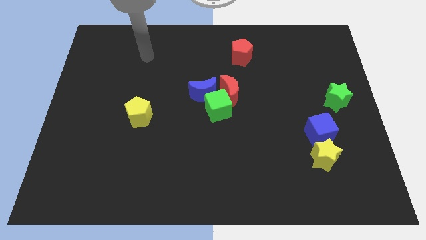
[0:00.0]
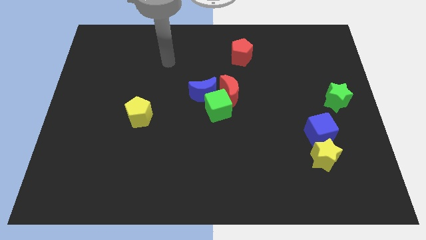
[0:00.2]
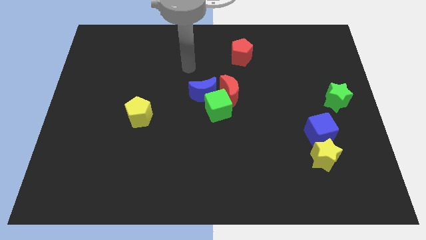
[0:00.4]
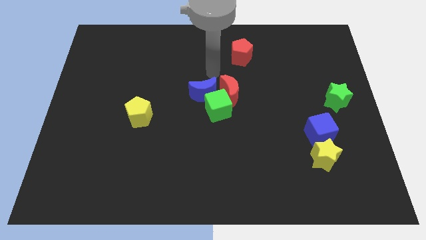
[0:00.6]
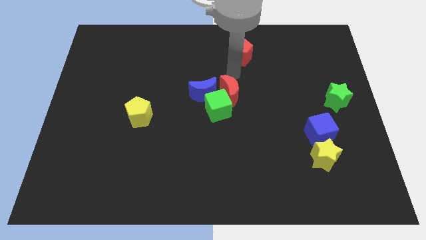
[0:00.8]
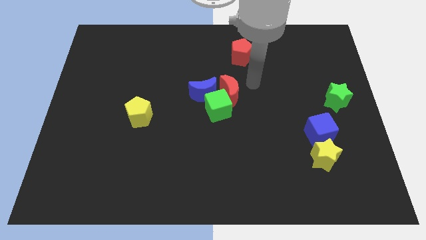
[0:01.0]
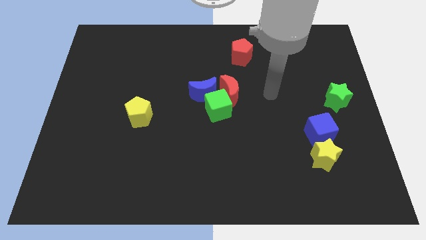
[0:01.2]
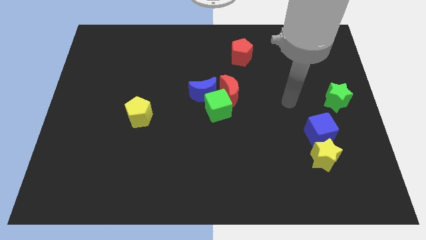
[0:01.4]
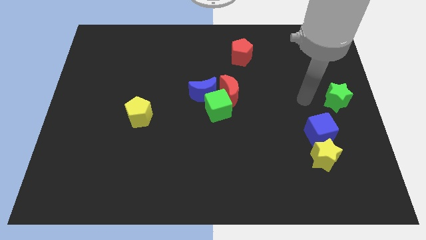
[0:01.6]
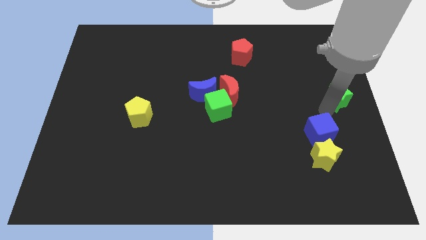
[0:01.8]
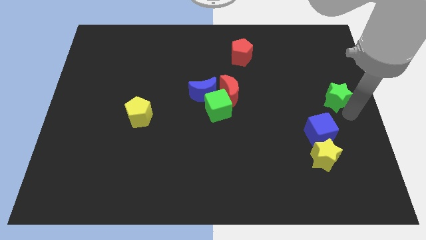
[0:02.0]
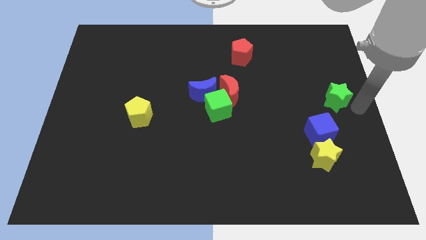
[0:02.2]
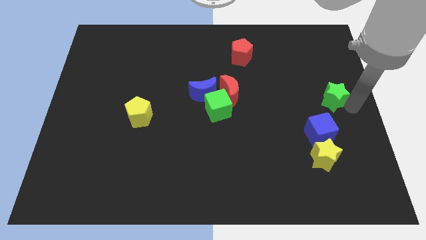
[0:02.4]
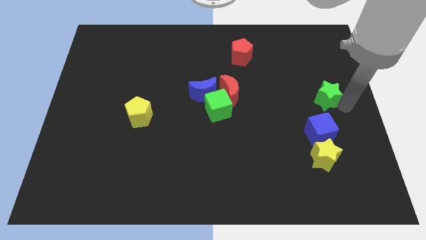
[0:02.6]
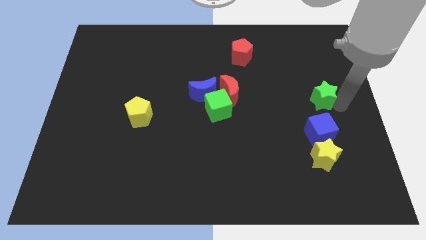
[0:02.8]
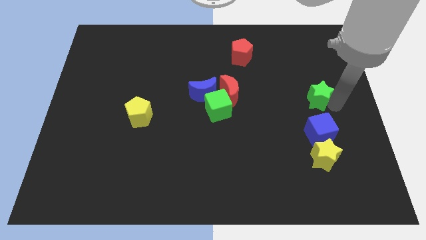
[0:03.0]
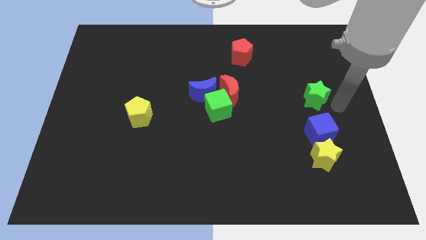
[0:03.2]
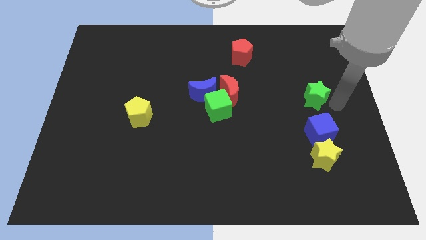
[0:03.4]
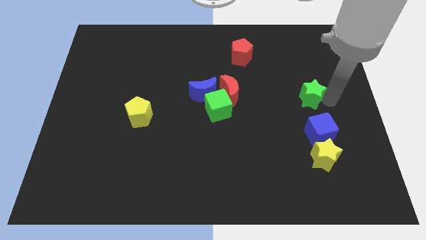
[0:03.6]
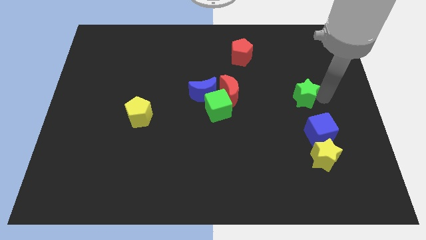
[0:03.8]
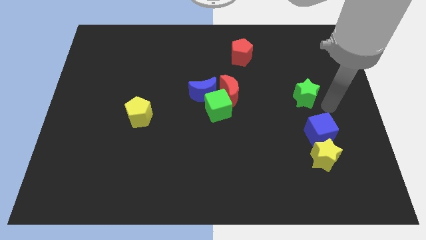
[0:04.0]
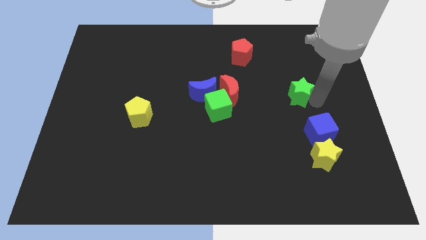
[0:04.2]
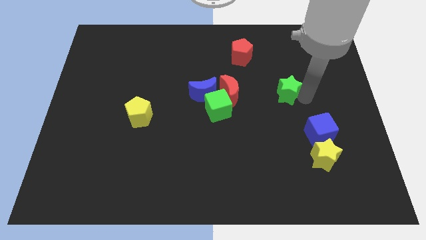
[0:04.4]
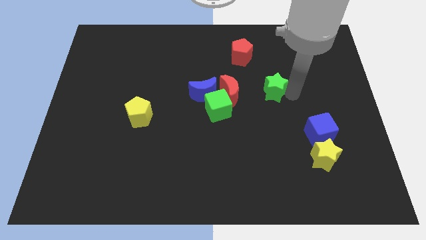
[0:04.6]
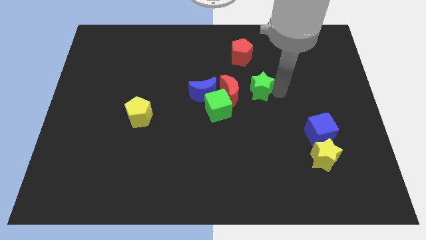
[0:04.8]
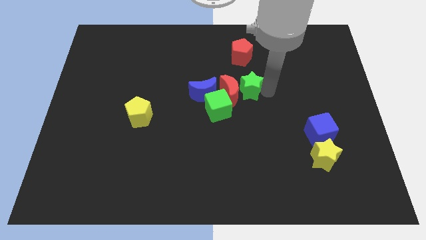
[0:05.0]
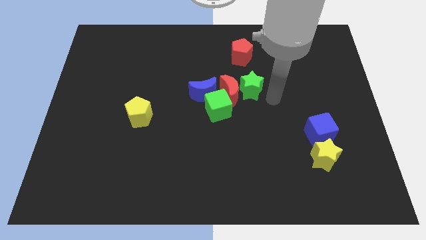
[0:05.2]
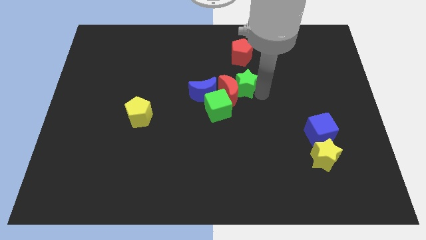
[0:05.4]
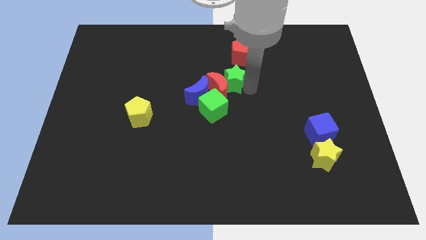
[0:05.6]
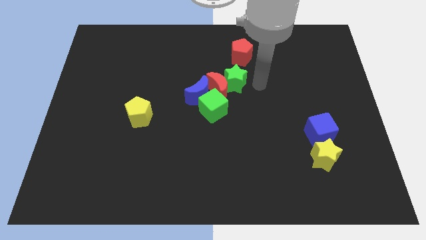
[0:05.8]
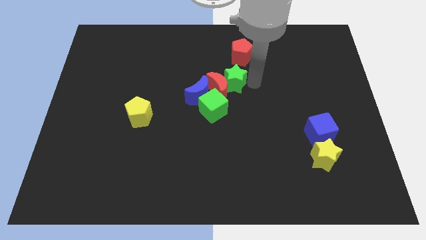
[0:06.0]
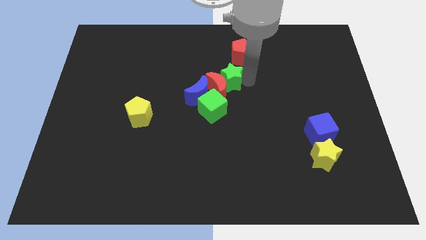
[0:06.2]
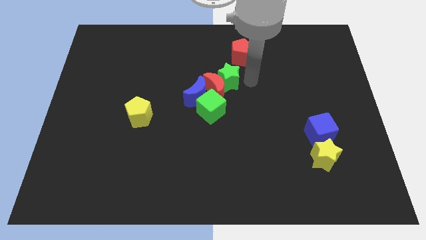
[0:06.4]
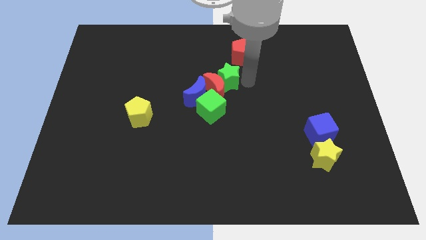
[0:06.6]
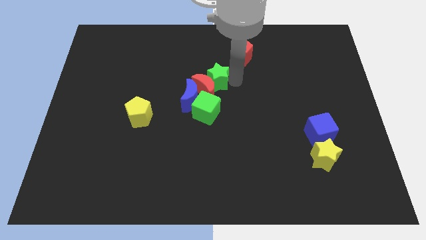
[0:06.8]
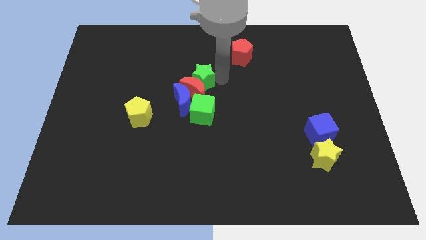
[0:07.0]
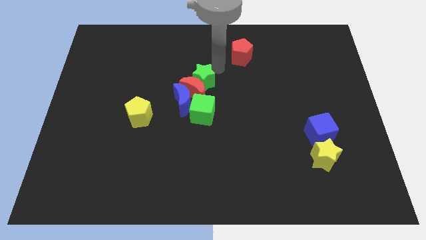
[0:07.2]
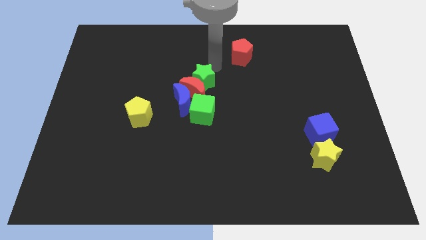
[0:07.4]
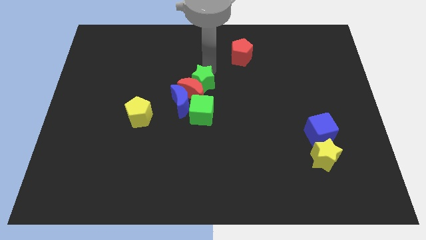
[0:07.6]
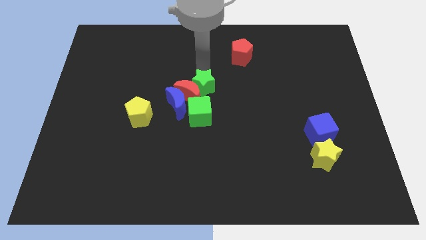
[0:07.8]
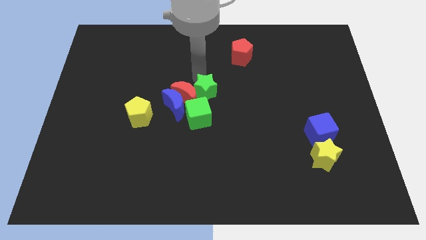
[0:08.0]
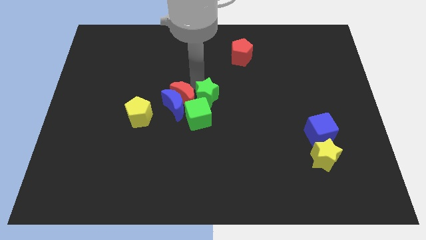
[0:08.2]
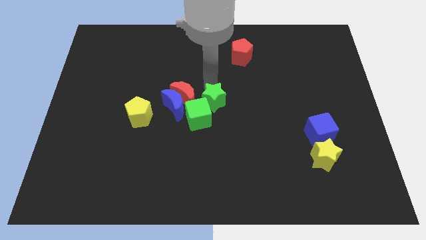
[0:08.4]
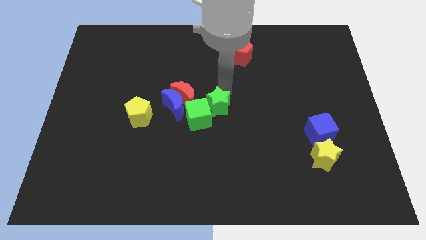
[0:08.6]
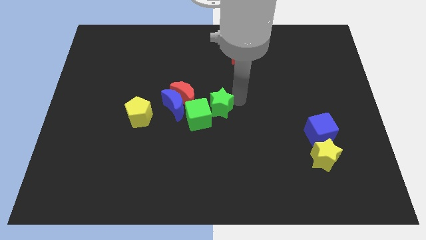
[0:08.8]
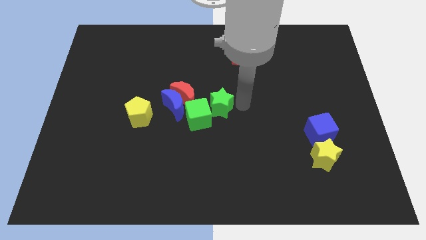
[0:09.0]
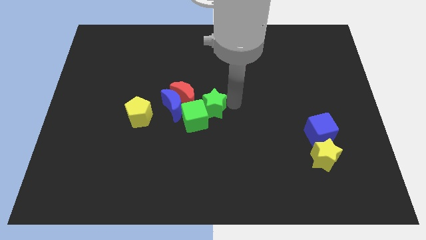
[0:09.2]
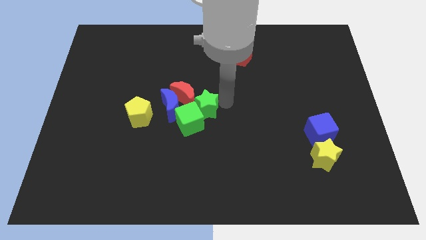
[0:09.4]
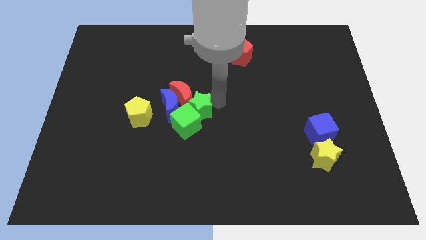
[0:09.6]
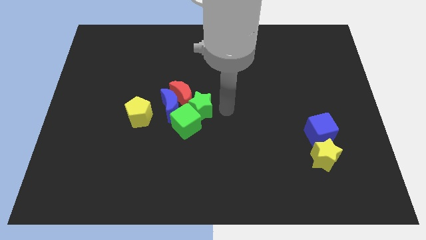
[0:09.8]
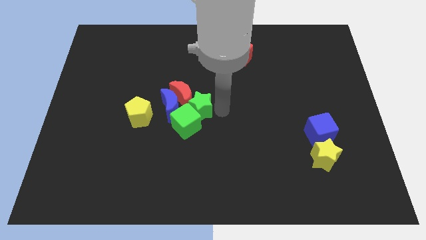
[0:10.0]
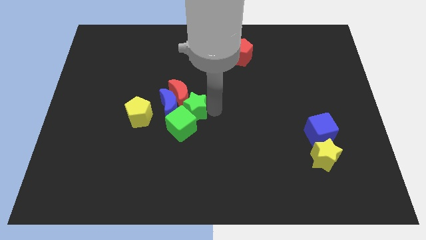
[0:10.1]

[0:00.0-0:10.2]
slide the green star next to the blue moon

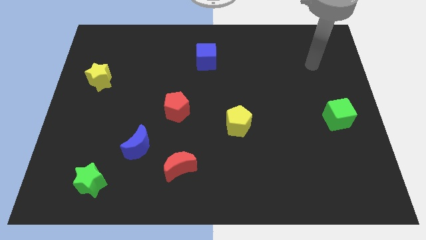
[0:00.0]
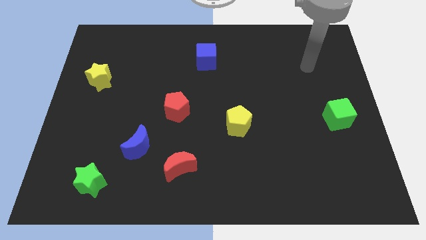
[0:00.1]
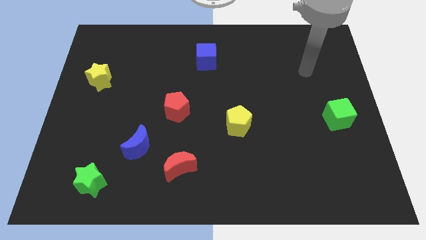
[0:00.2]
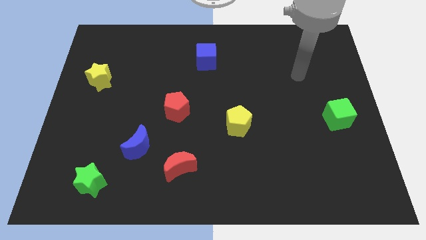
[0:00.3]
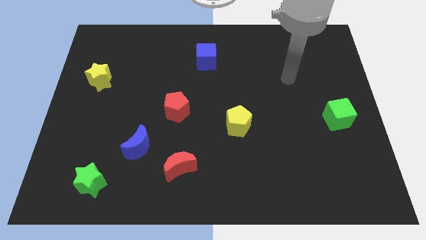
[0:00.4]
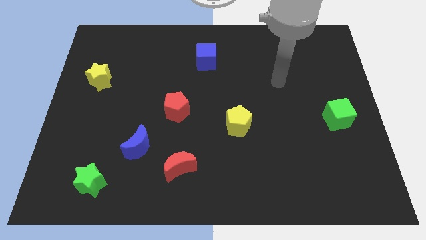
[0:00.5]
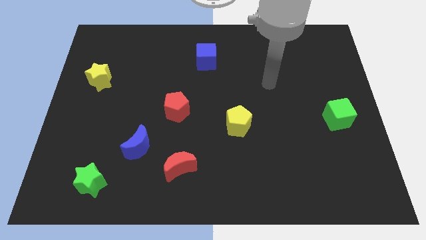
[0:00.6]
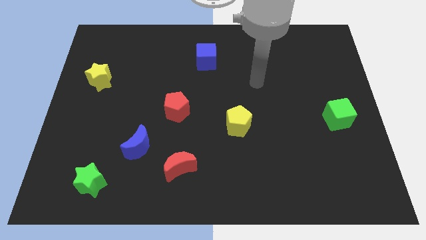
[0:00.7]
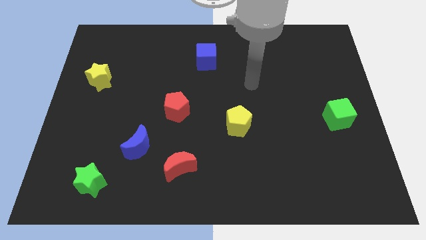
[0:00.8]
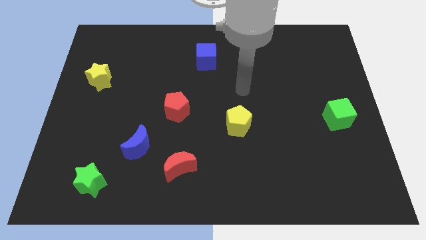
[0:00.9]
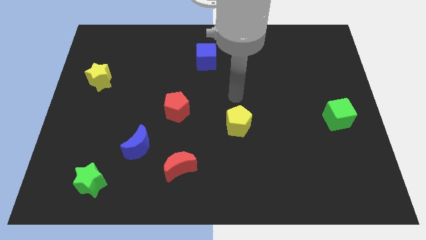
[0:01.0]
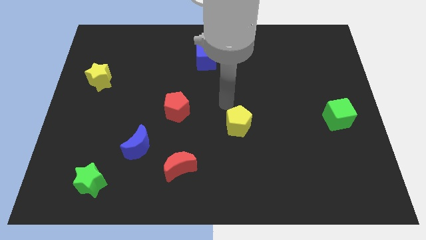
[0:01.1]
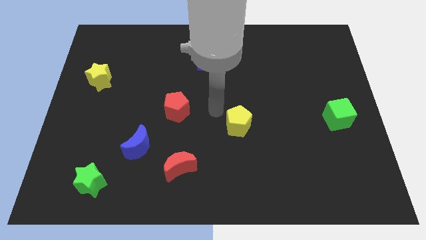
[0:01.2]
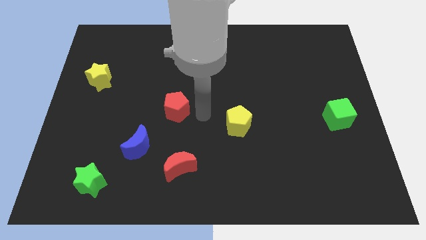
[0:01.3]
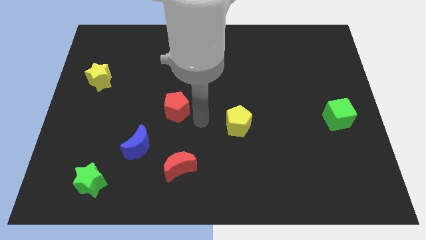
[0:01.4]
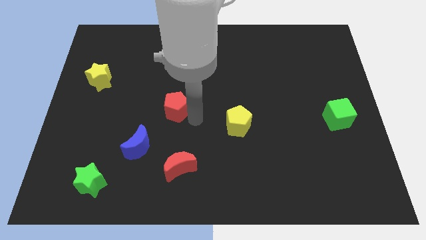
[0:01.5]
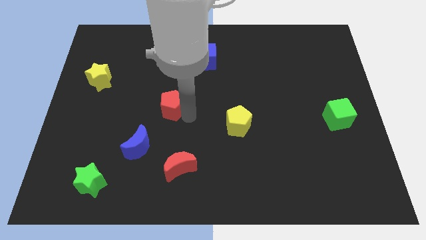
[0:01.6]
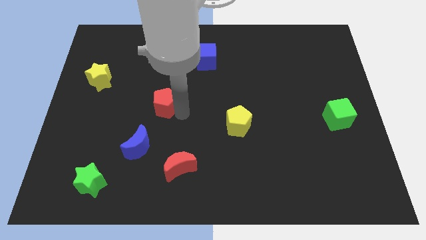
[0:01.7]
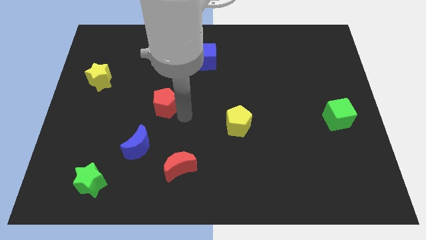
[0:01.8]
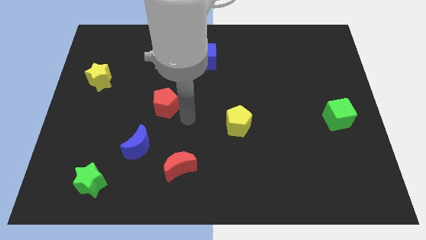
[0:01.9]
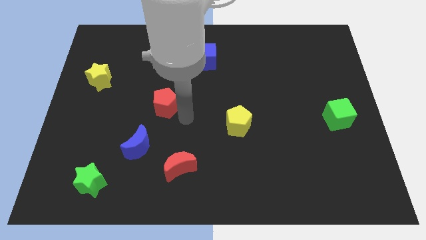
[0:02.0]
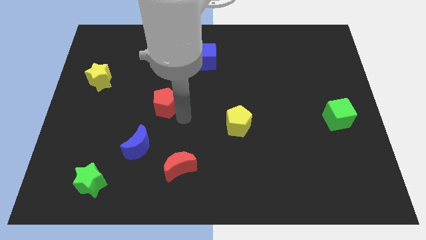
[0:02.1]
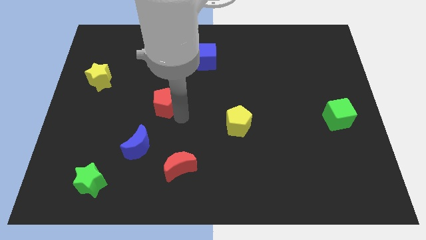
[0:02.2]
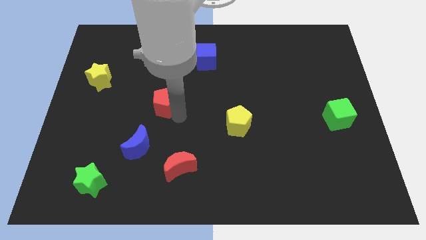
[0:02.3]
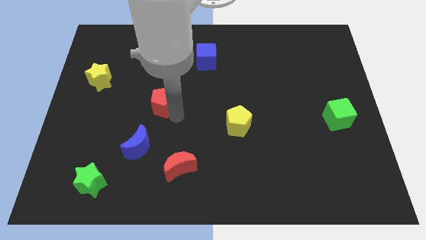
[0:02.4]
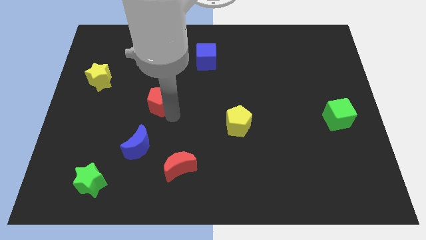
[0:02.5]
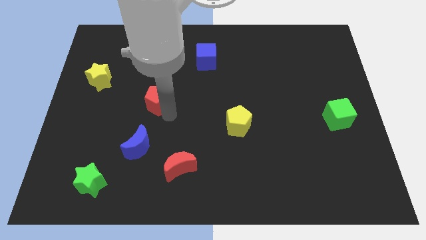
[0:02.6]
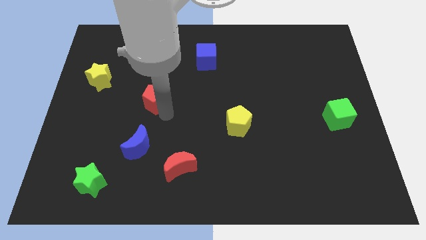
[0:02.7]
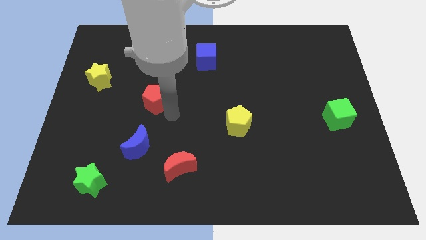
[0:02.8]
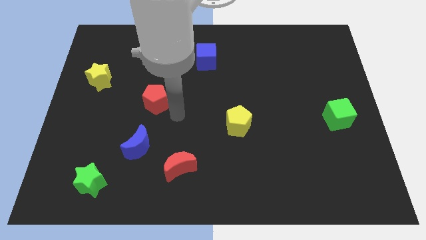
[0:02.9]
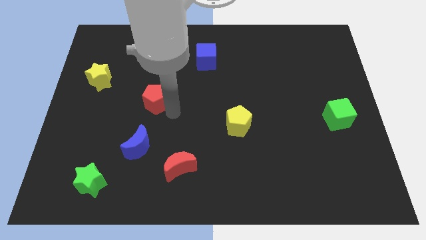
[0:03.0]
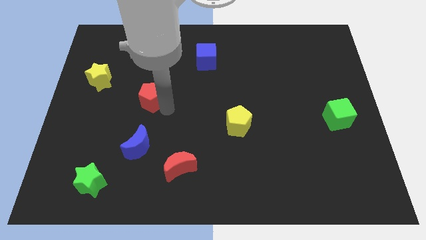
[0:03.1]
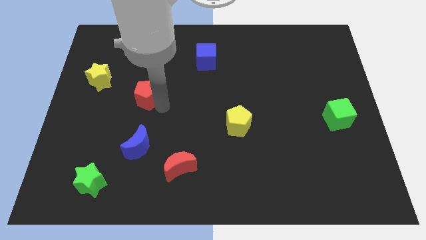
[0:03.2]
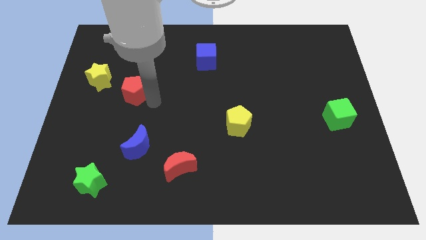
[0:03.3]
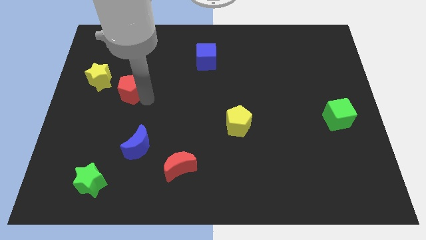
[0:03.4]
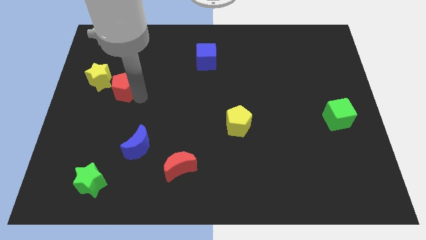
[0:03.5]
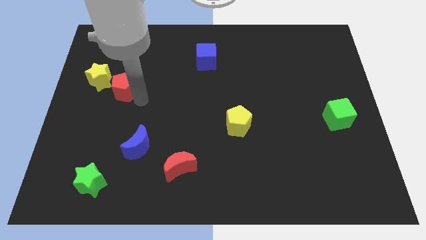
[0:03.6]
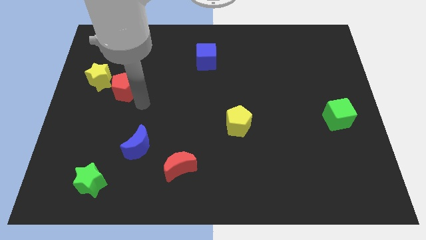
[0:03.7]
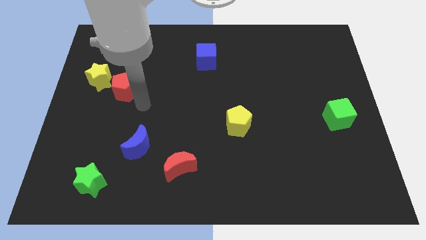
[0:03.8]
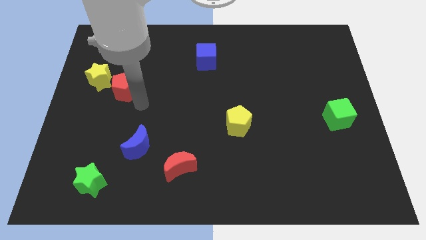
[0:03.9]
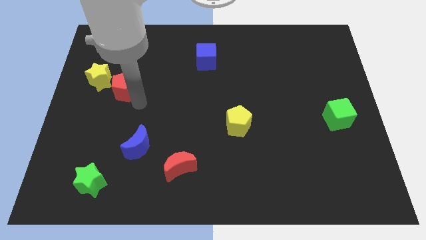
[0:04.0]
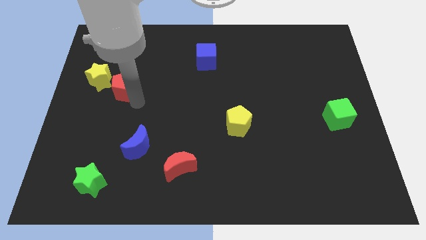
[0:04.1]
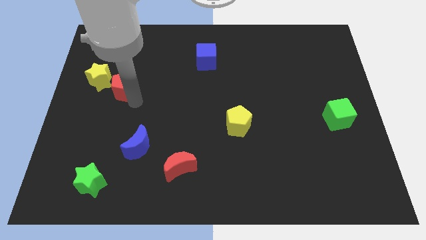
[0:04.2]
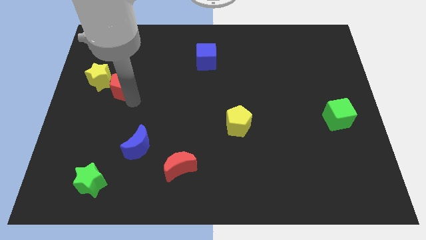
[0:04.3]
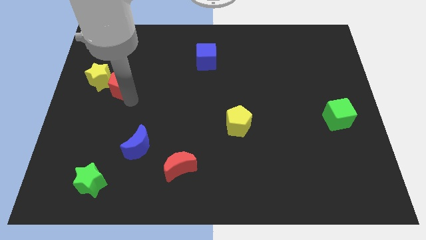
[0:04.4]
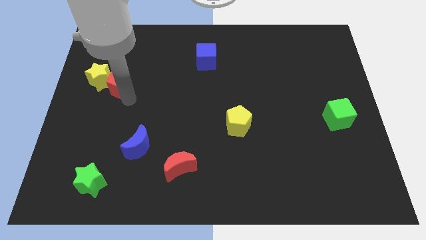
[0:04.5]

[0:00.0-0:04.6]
push the red pentagon close to the yellow star
